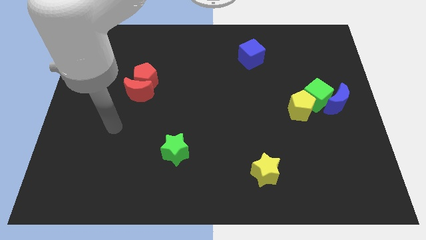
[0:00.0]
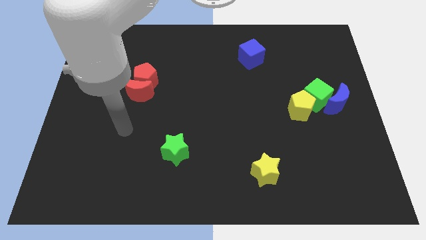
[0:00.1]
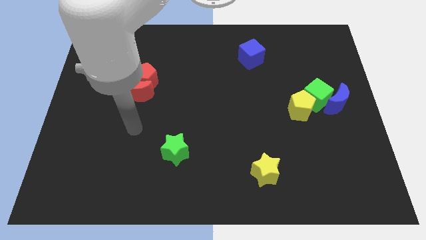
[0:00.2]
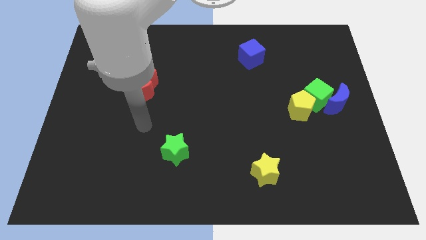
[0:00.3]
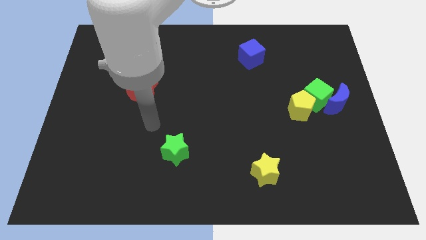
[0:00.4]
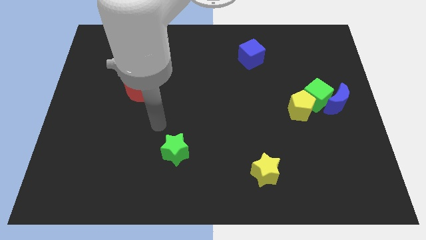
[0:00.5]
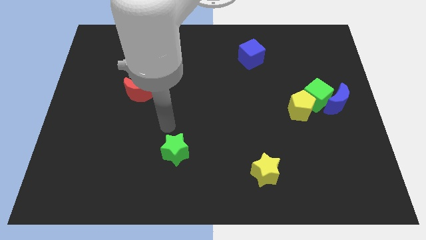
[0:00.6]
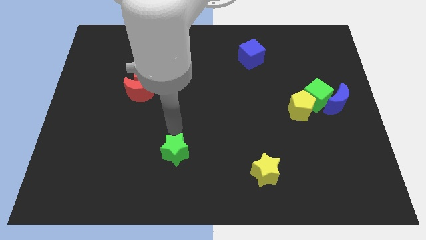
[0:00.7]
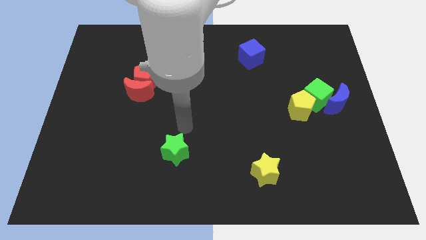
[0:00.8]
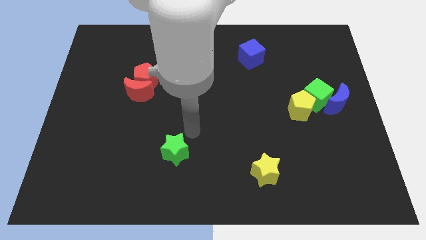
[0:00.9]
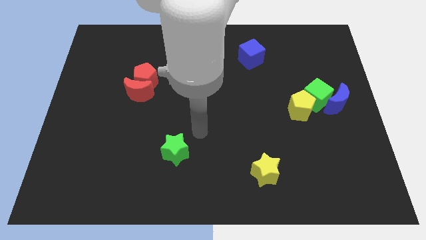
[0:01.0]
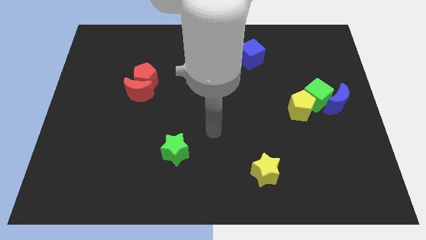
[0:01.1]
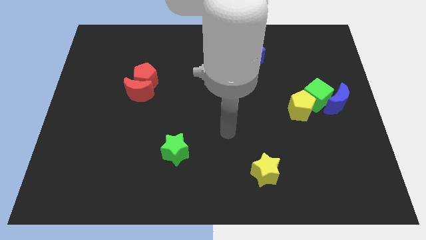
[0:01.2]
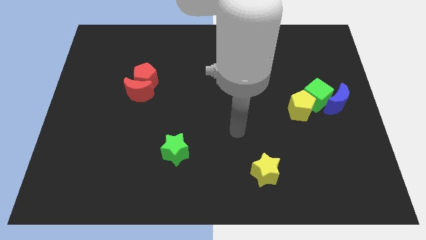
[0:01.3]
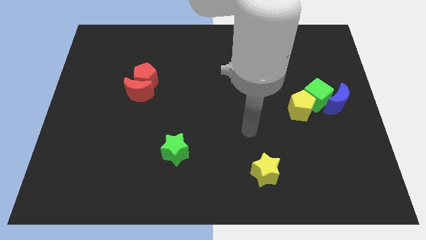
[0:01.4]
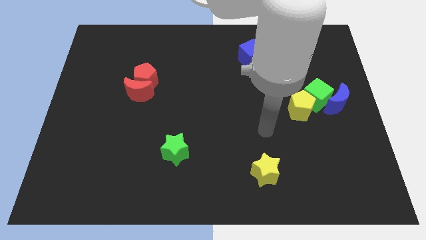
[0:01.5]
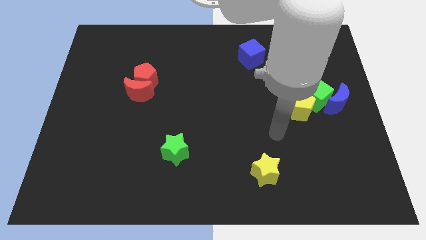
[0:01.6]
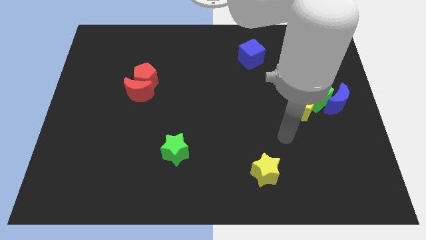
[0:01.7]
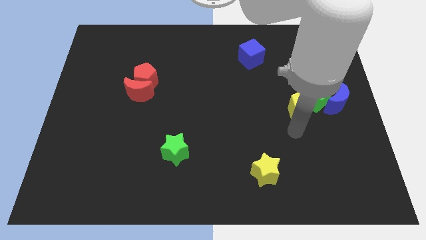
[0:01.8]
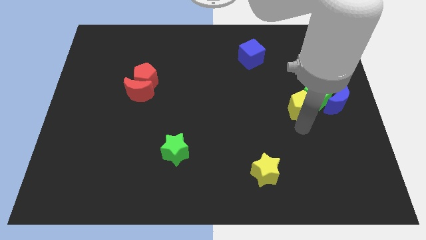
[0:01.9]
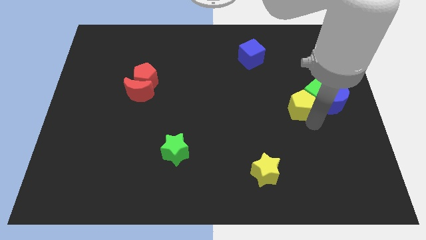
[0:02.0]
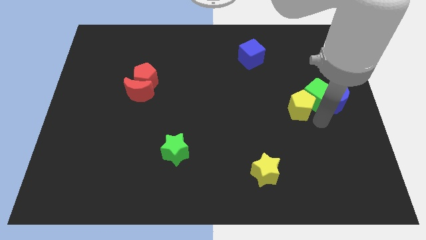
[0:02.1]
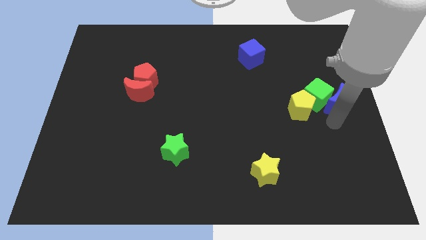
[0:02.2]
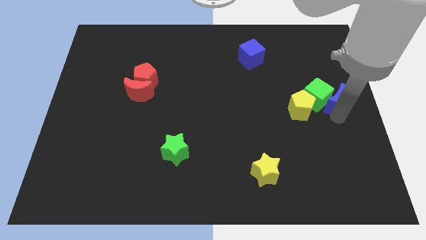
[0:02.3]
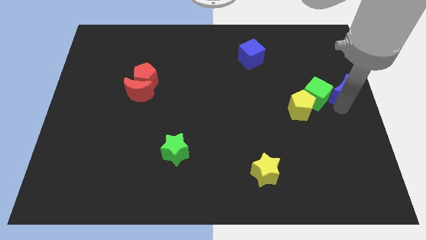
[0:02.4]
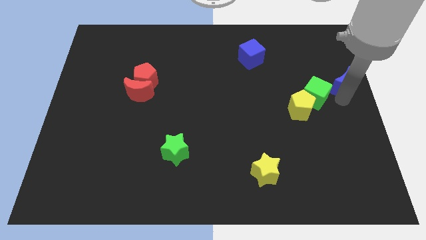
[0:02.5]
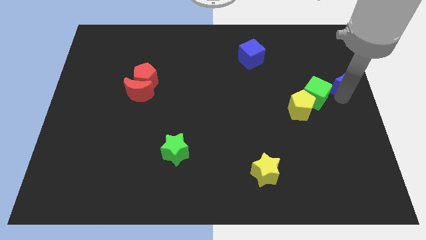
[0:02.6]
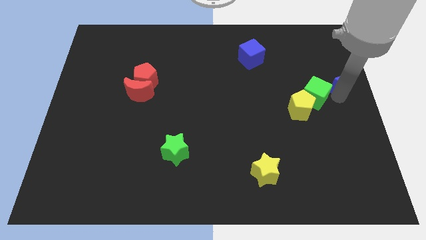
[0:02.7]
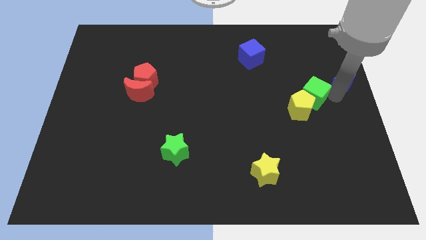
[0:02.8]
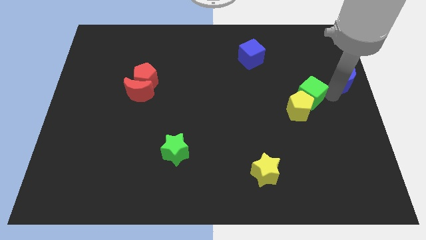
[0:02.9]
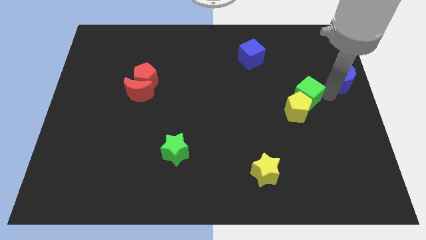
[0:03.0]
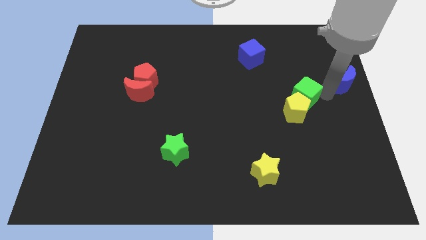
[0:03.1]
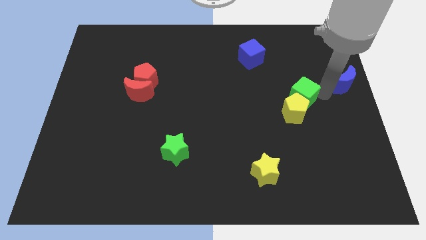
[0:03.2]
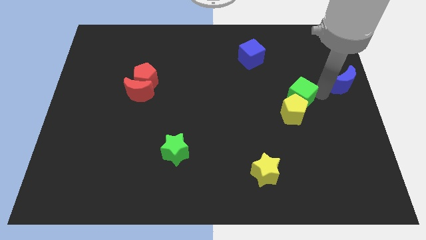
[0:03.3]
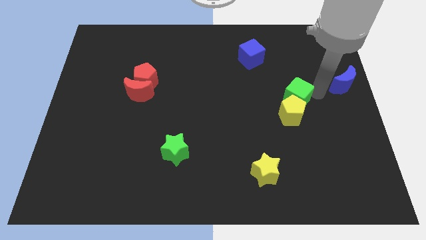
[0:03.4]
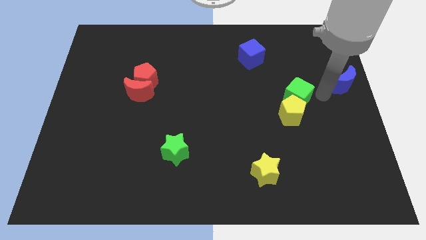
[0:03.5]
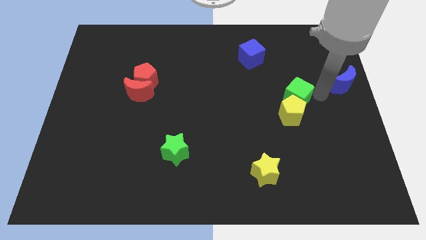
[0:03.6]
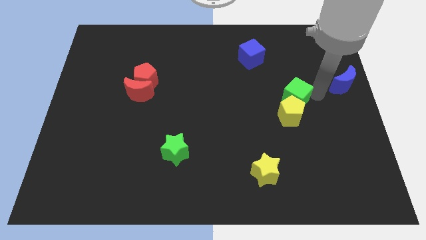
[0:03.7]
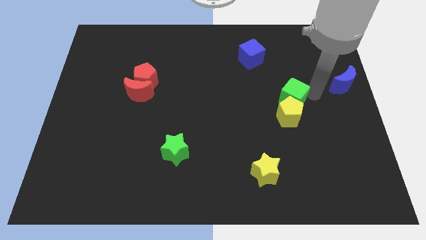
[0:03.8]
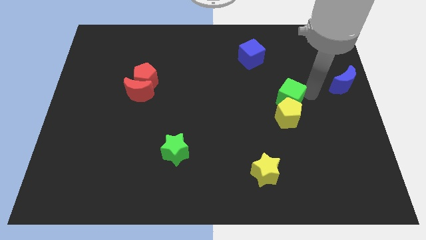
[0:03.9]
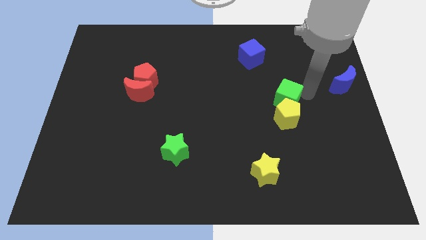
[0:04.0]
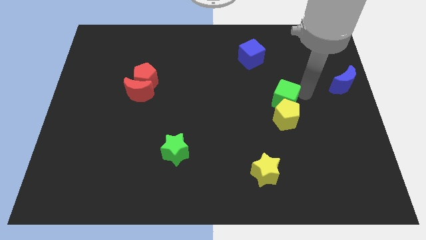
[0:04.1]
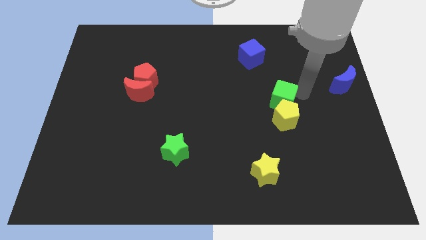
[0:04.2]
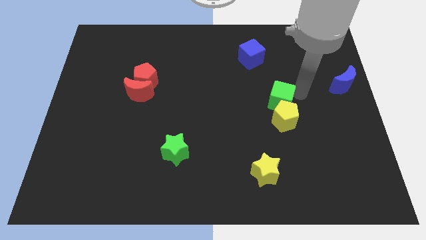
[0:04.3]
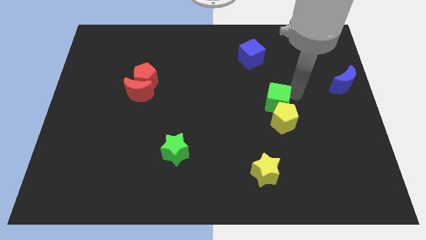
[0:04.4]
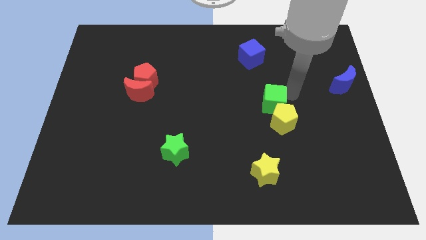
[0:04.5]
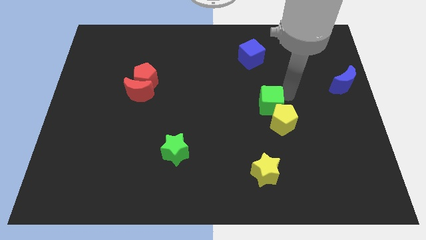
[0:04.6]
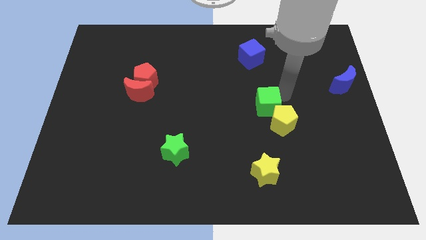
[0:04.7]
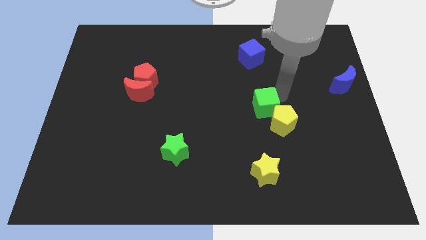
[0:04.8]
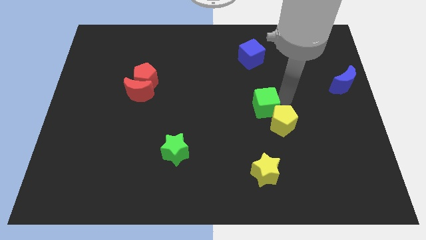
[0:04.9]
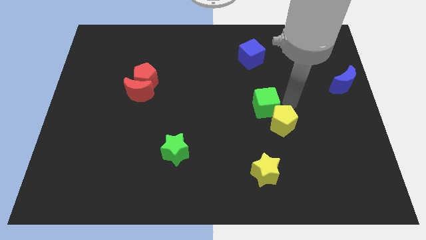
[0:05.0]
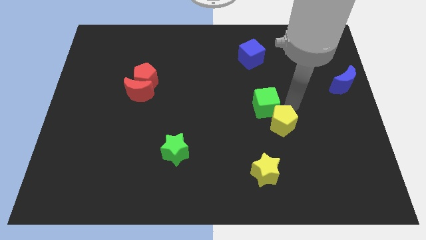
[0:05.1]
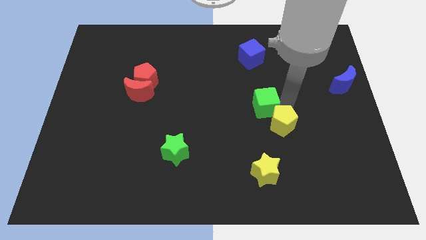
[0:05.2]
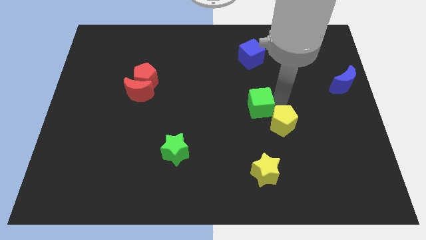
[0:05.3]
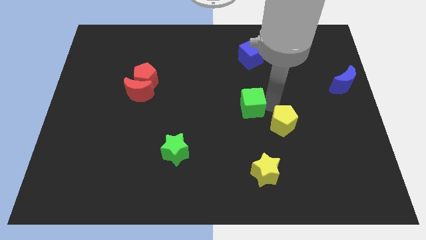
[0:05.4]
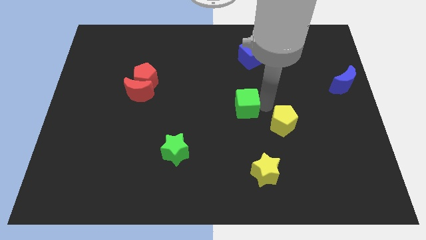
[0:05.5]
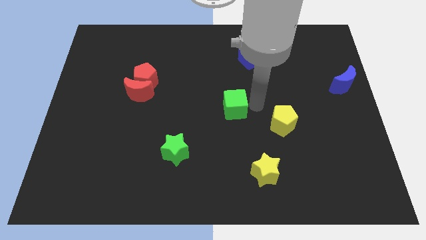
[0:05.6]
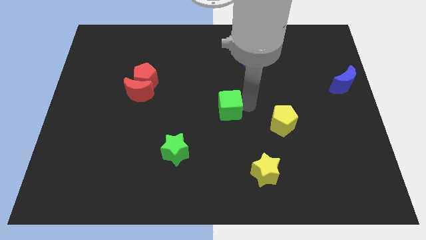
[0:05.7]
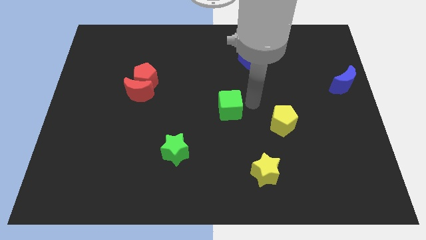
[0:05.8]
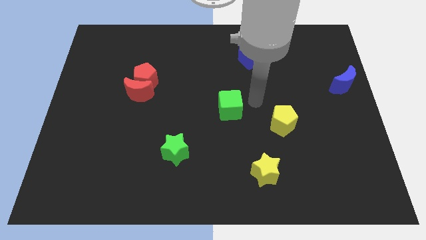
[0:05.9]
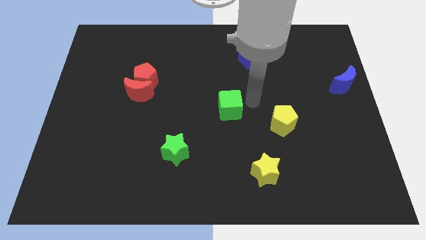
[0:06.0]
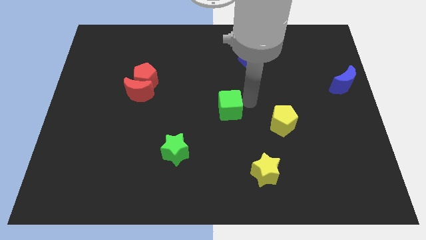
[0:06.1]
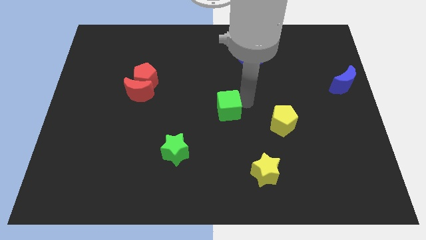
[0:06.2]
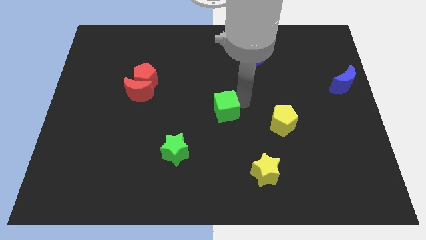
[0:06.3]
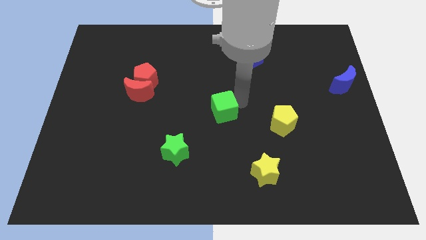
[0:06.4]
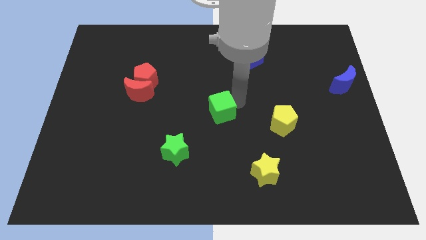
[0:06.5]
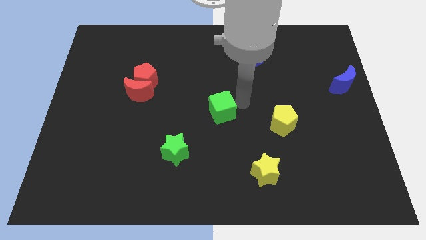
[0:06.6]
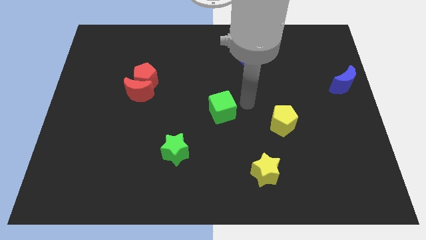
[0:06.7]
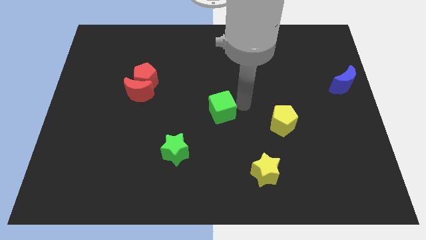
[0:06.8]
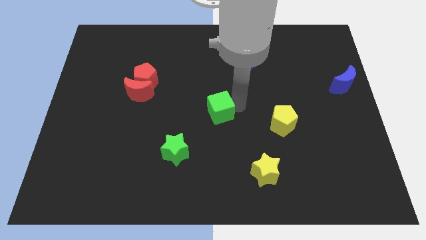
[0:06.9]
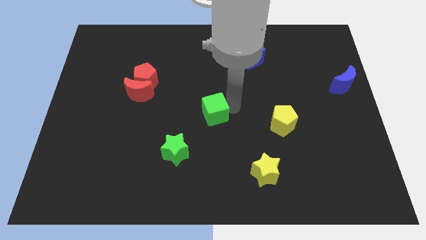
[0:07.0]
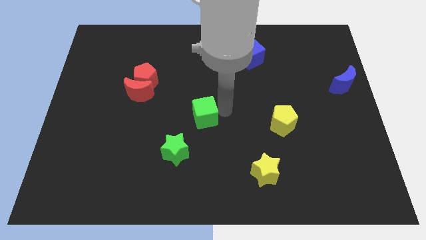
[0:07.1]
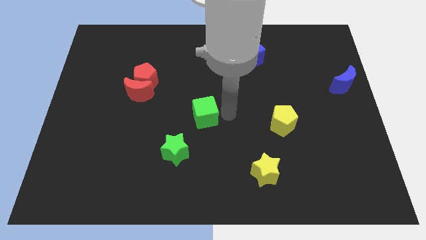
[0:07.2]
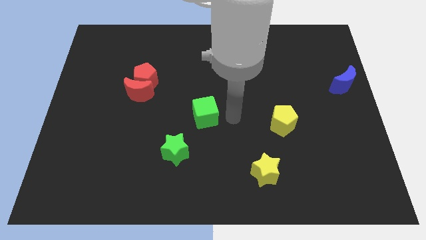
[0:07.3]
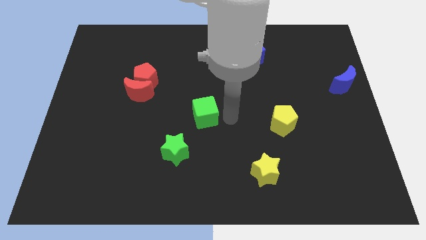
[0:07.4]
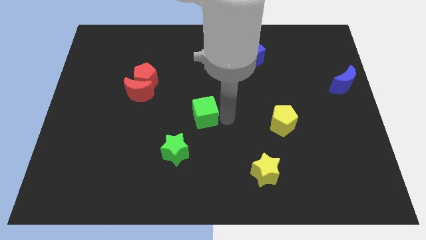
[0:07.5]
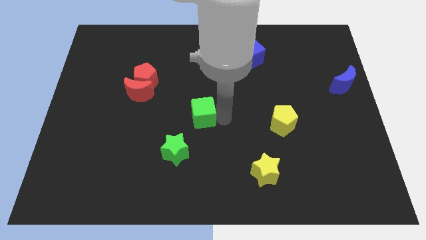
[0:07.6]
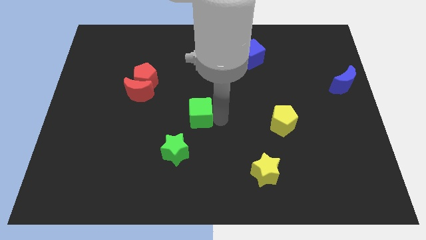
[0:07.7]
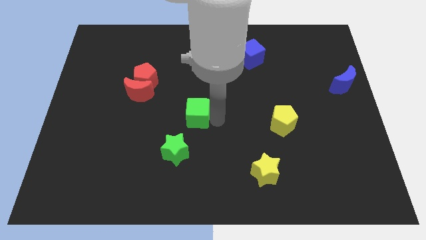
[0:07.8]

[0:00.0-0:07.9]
put the green cube to the top side of the green star
